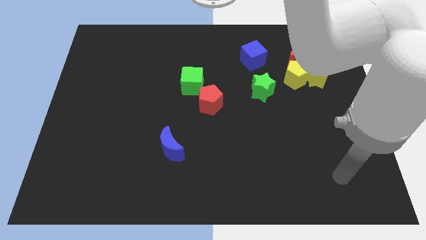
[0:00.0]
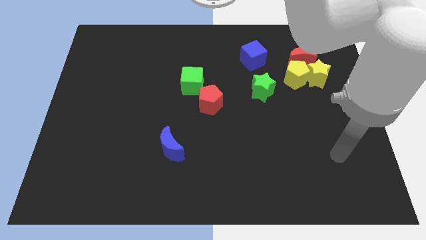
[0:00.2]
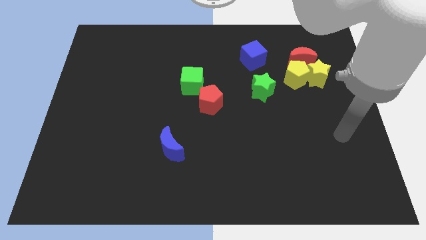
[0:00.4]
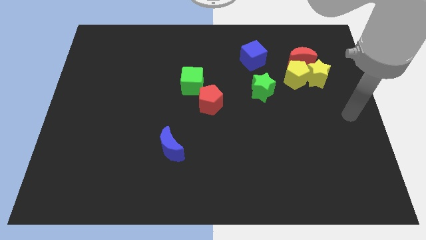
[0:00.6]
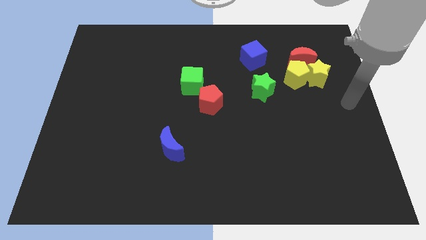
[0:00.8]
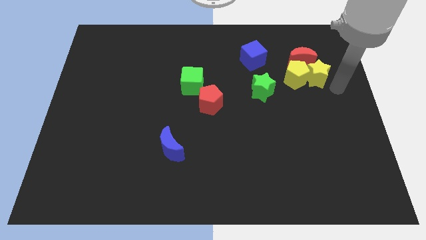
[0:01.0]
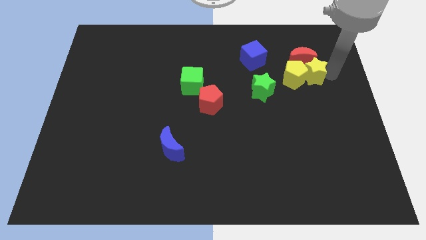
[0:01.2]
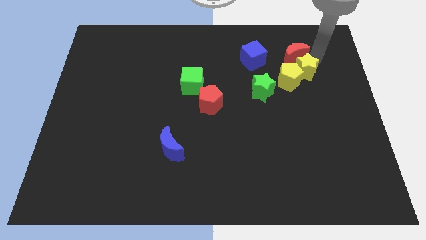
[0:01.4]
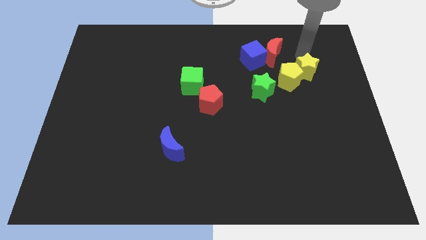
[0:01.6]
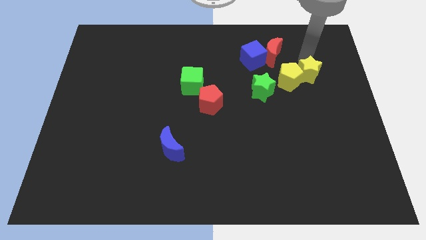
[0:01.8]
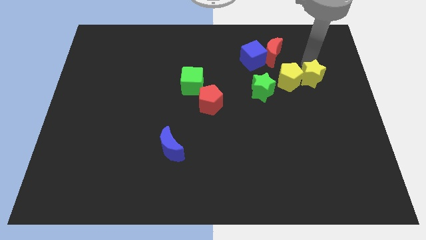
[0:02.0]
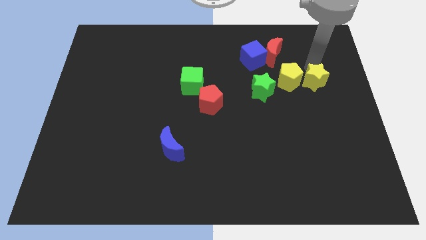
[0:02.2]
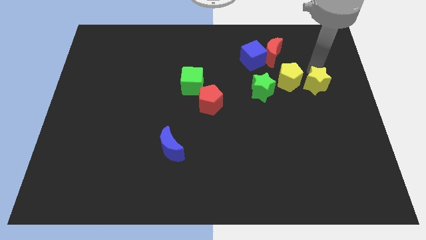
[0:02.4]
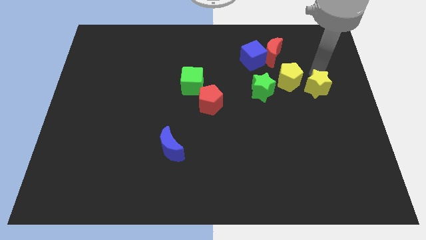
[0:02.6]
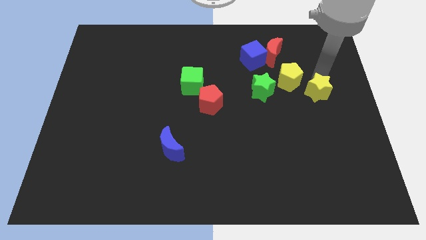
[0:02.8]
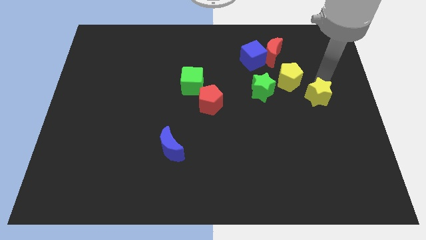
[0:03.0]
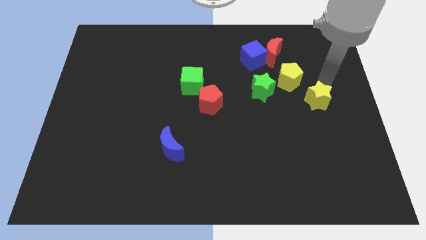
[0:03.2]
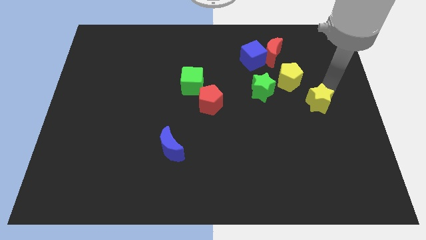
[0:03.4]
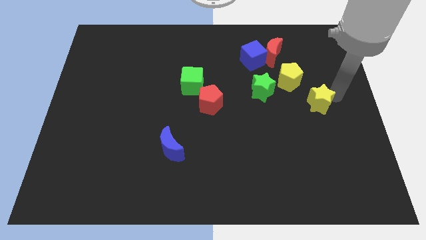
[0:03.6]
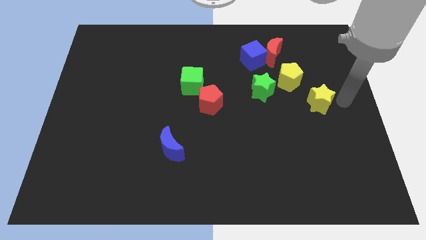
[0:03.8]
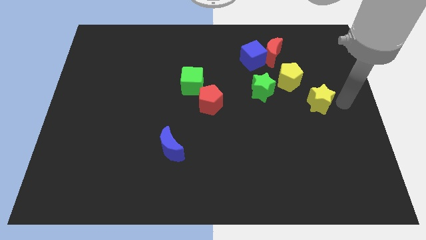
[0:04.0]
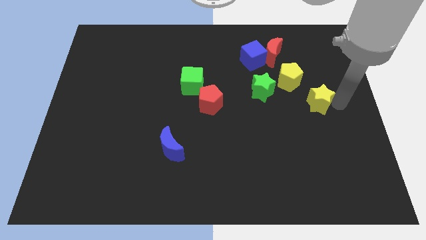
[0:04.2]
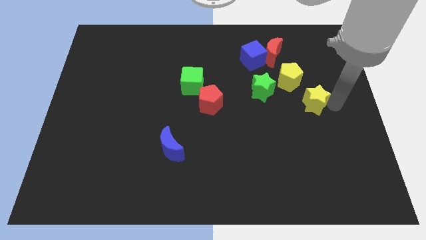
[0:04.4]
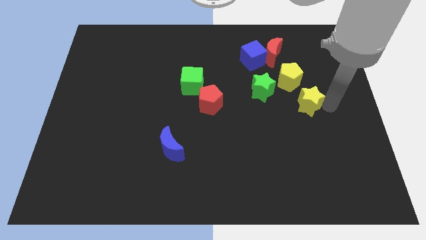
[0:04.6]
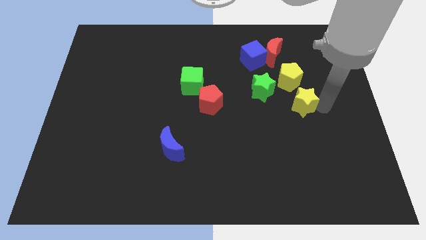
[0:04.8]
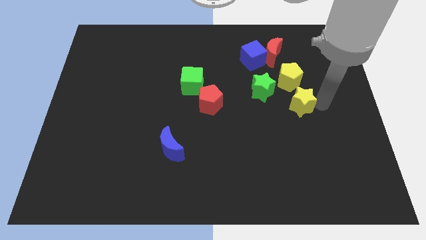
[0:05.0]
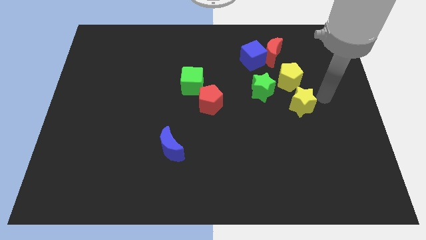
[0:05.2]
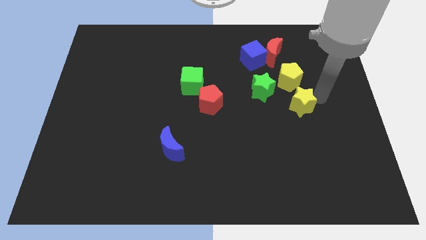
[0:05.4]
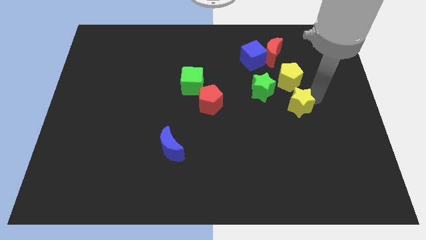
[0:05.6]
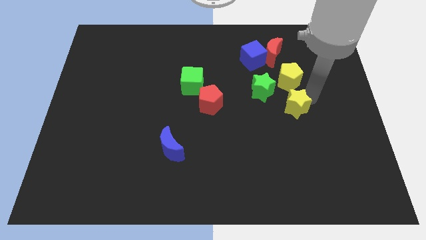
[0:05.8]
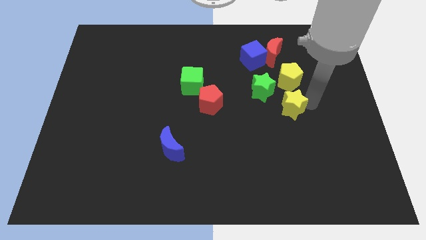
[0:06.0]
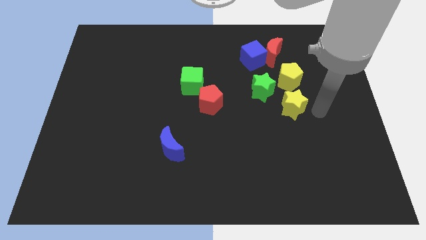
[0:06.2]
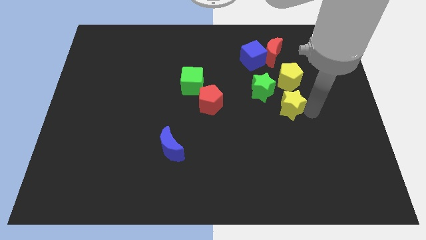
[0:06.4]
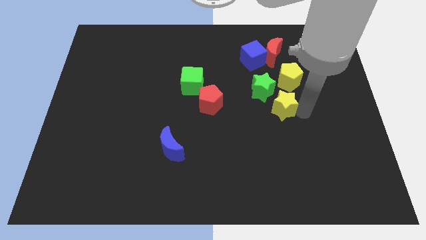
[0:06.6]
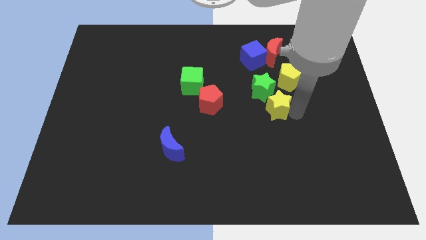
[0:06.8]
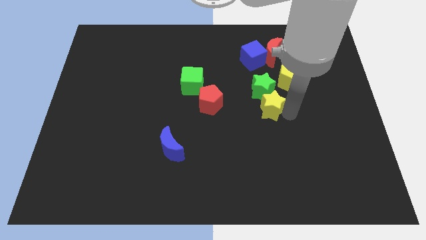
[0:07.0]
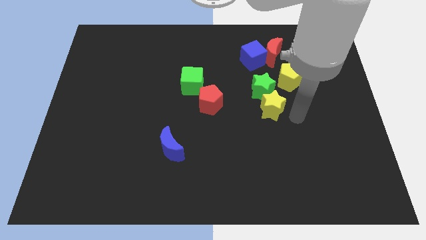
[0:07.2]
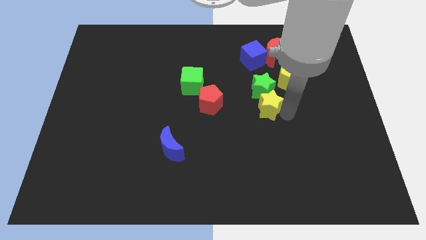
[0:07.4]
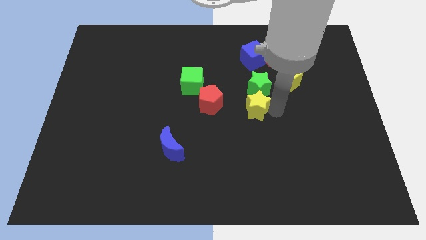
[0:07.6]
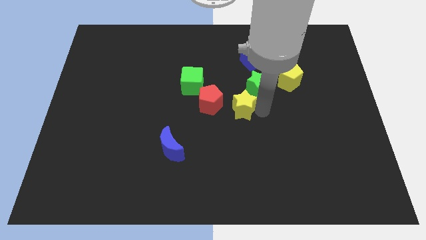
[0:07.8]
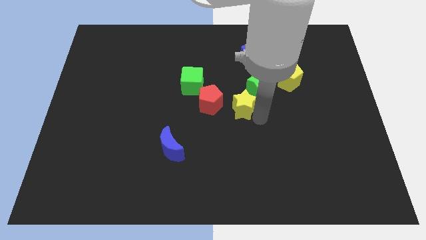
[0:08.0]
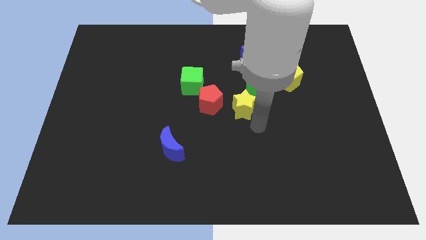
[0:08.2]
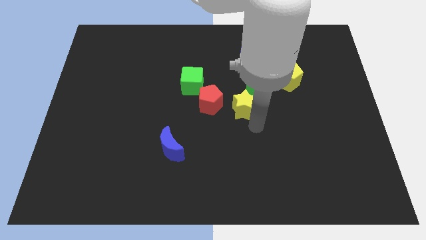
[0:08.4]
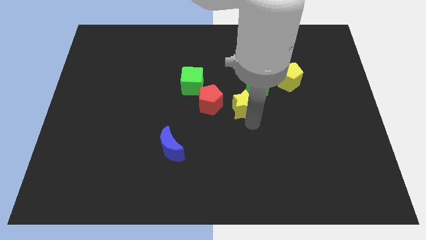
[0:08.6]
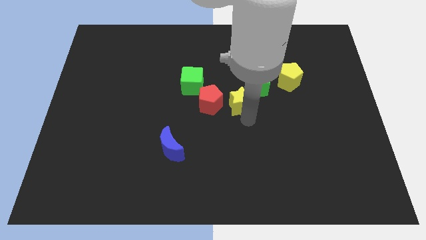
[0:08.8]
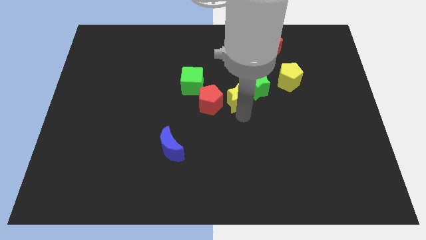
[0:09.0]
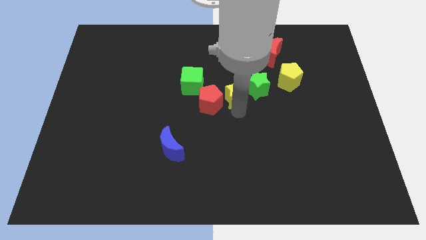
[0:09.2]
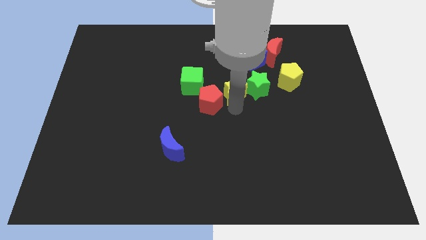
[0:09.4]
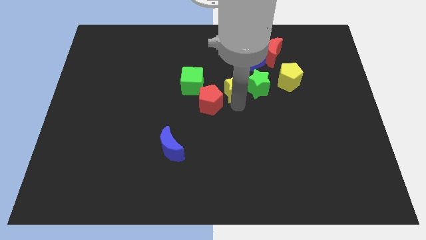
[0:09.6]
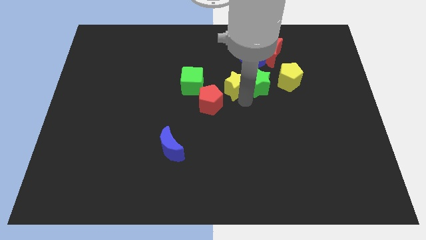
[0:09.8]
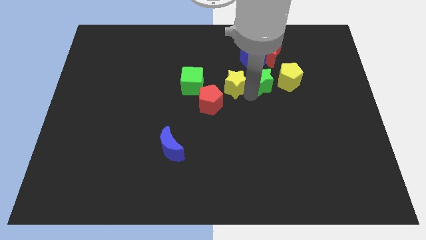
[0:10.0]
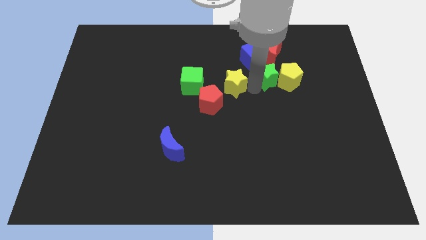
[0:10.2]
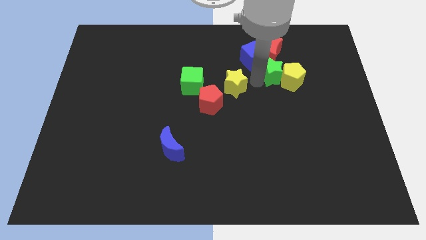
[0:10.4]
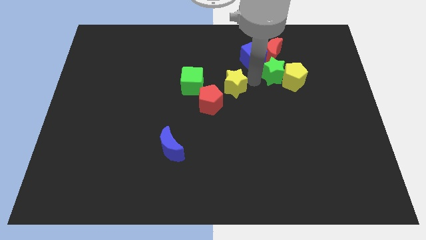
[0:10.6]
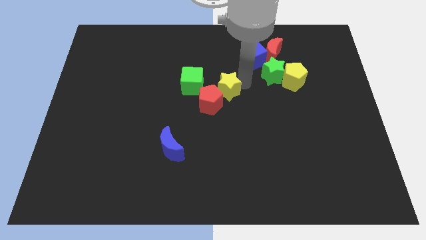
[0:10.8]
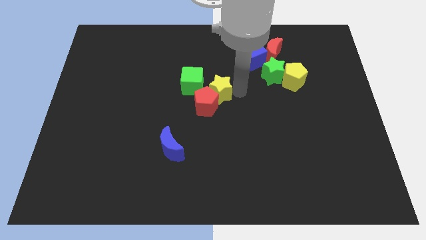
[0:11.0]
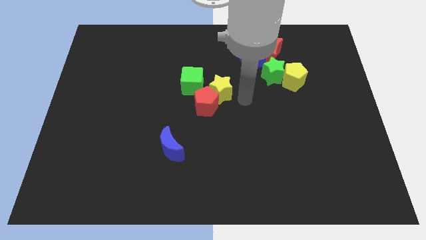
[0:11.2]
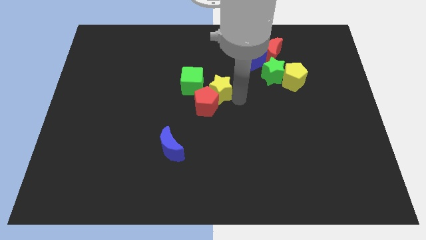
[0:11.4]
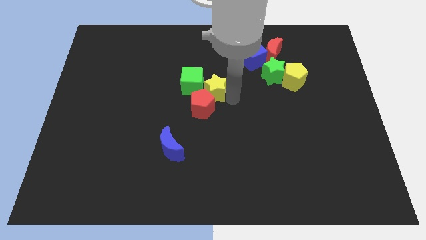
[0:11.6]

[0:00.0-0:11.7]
put the yellow star towards the green cube
